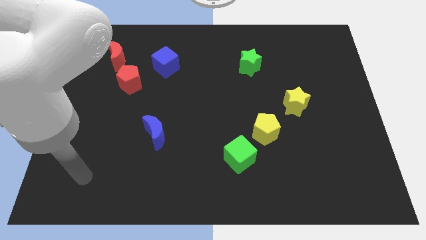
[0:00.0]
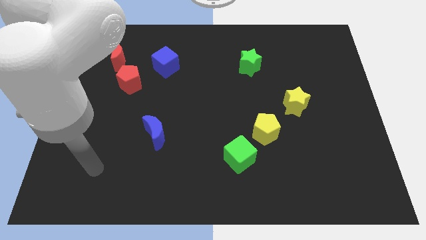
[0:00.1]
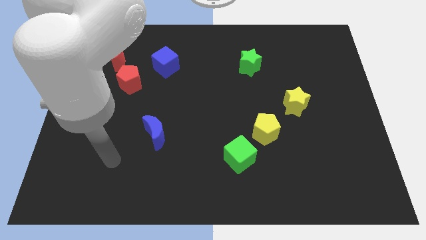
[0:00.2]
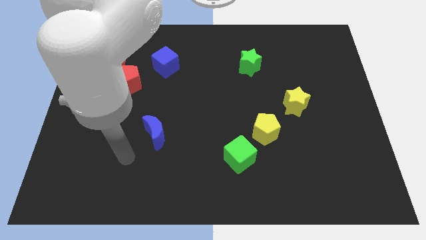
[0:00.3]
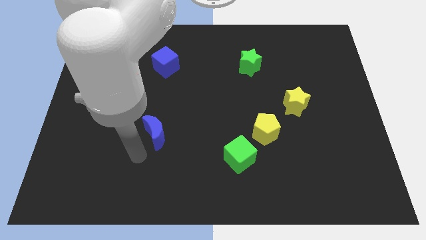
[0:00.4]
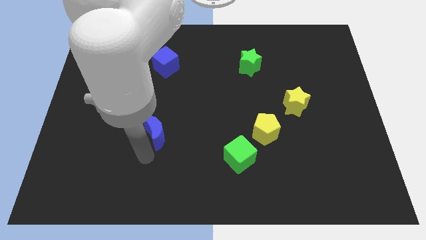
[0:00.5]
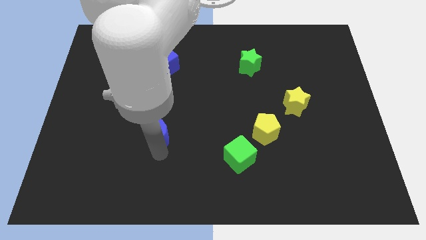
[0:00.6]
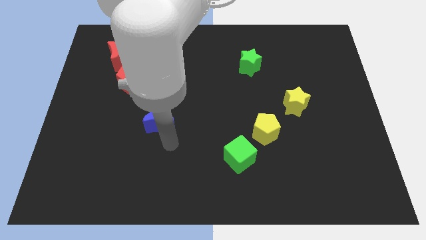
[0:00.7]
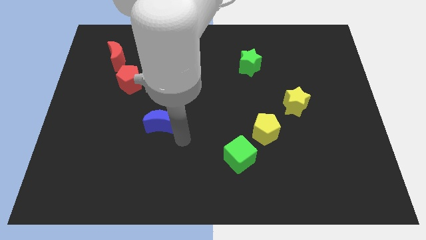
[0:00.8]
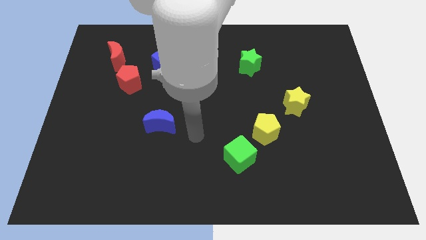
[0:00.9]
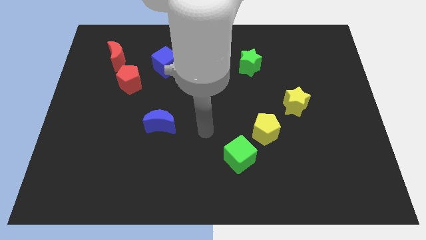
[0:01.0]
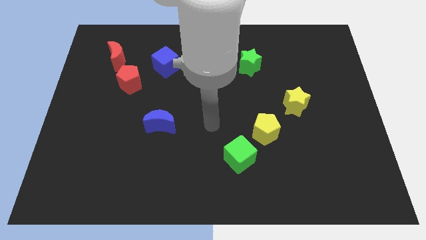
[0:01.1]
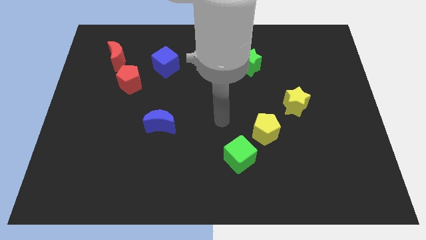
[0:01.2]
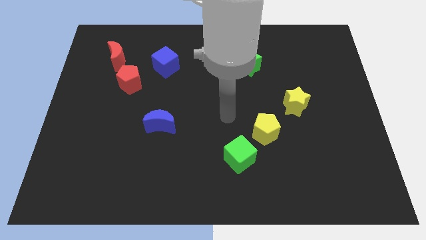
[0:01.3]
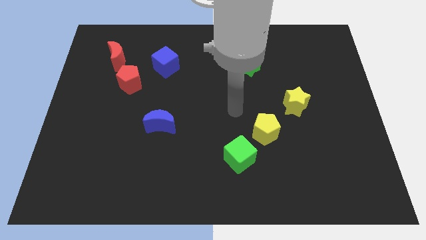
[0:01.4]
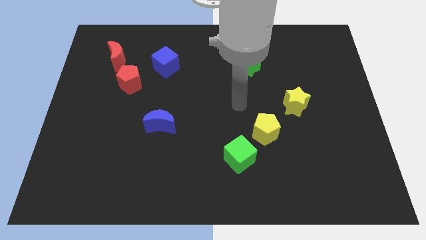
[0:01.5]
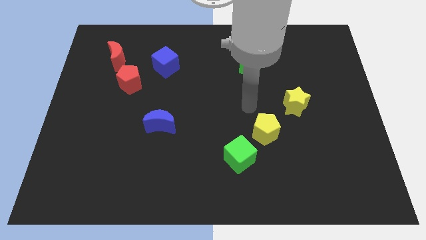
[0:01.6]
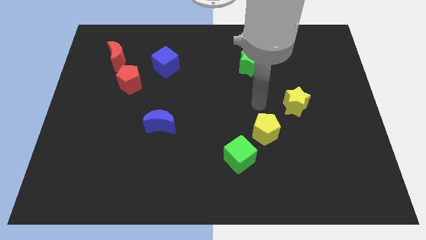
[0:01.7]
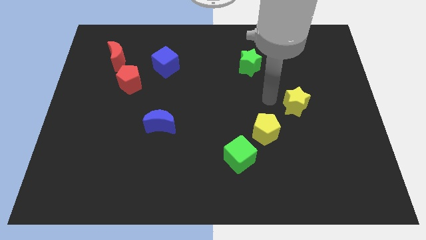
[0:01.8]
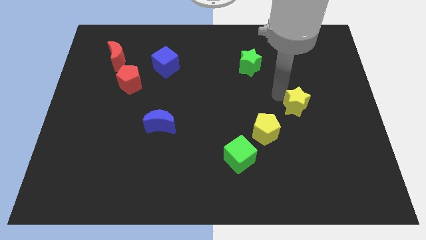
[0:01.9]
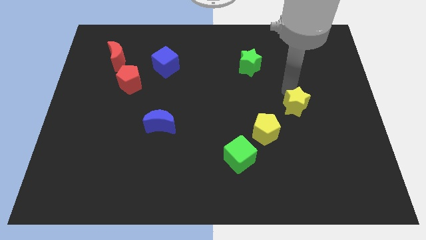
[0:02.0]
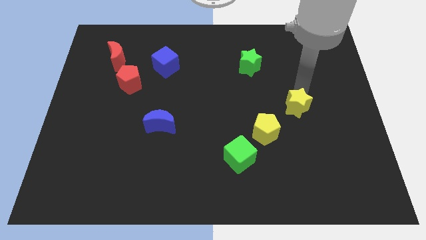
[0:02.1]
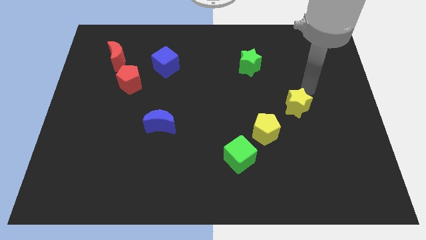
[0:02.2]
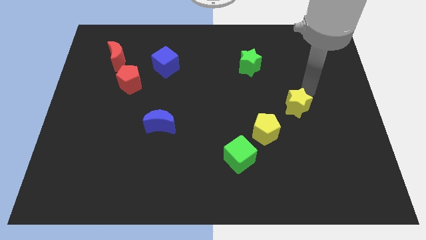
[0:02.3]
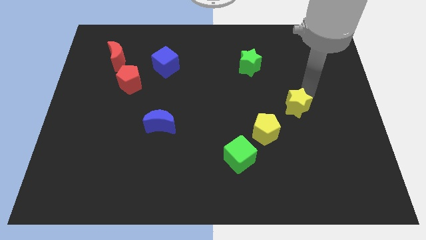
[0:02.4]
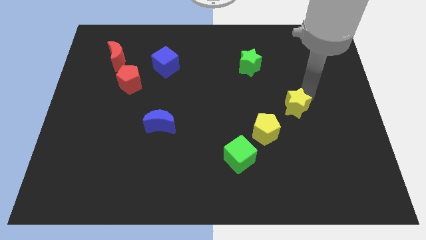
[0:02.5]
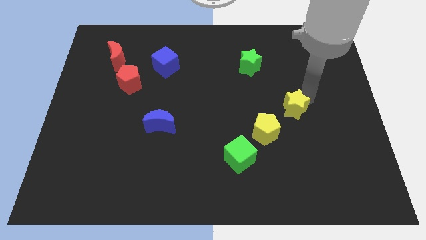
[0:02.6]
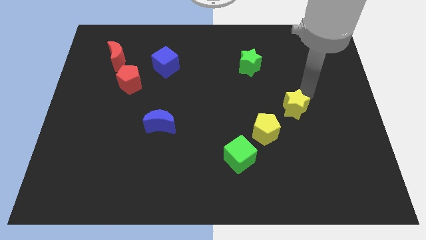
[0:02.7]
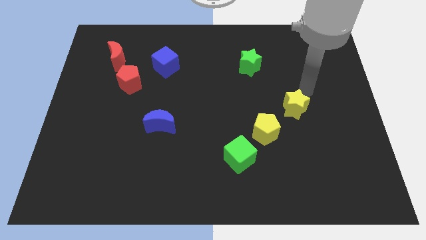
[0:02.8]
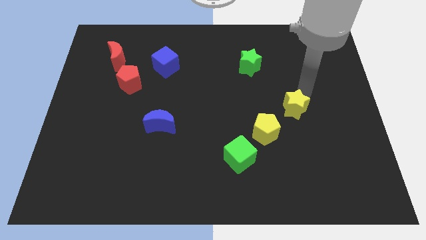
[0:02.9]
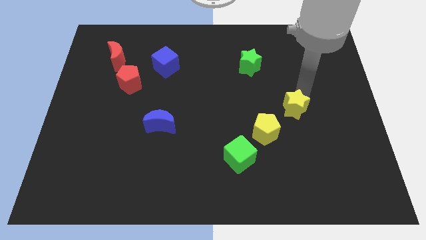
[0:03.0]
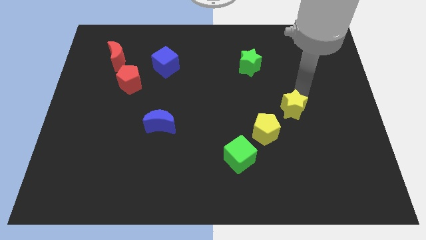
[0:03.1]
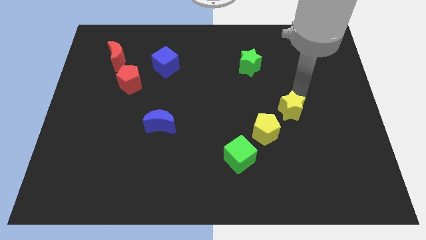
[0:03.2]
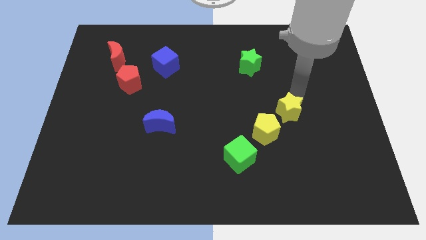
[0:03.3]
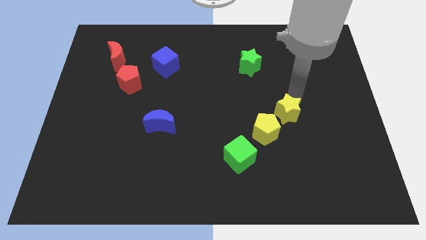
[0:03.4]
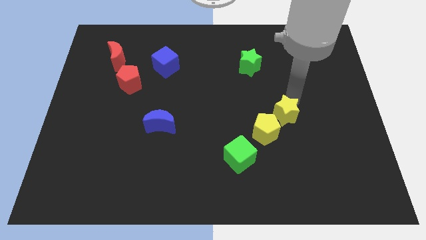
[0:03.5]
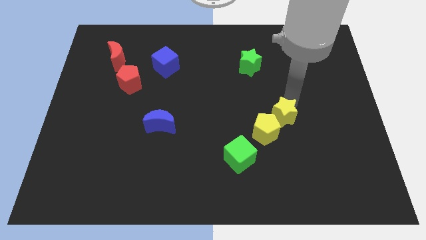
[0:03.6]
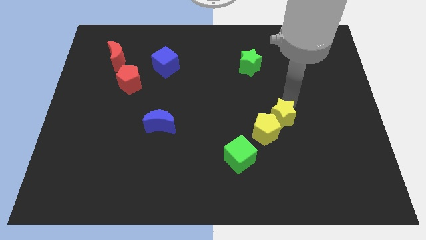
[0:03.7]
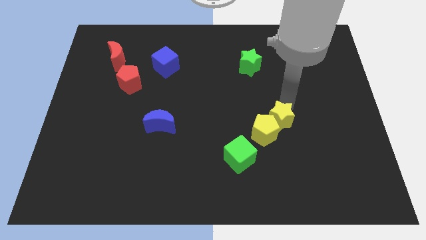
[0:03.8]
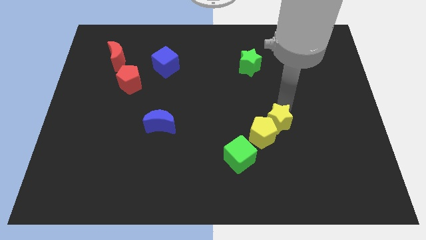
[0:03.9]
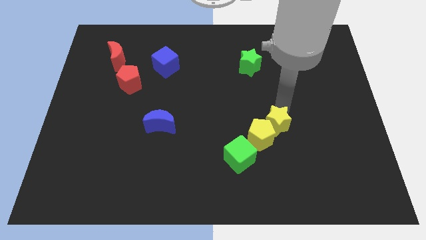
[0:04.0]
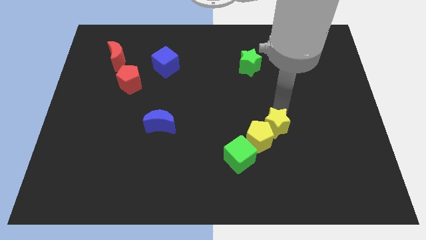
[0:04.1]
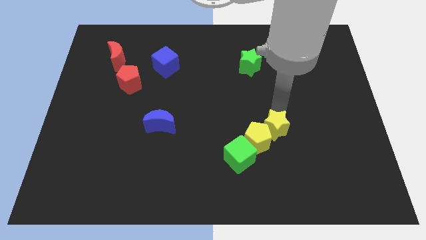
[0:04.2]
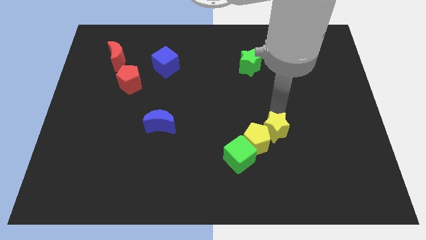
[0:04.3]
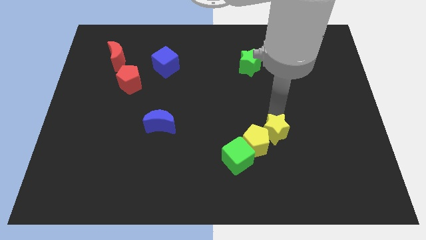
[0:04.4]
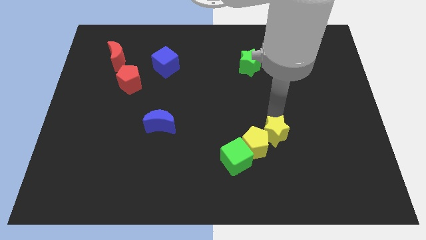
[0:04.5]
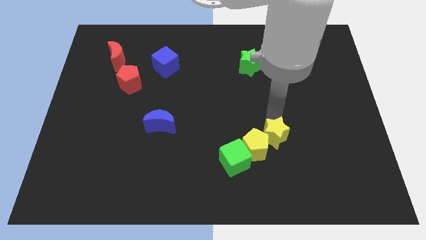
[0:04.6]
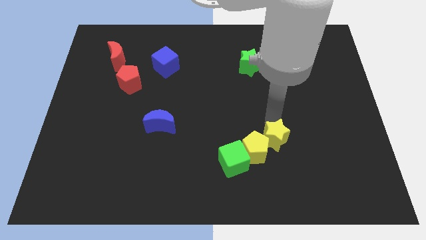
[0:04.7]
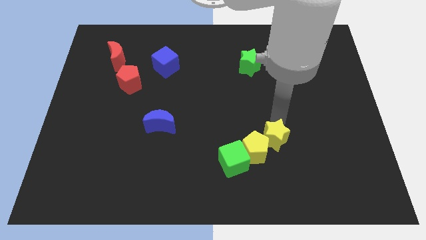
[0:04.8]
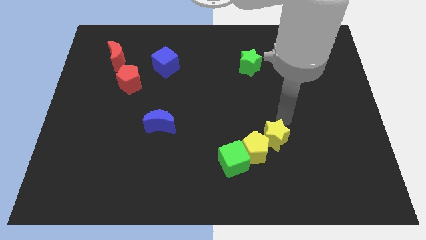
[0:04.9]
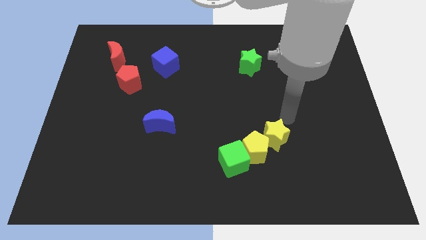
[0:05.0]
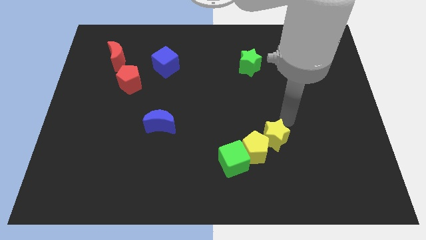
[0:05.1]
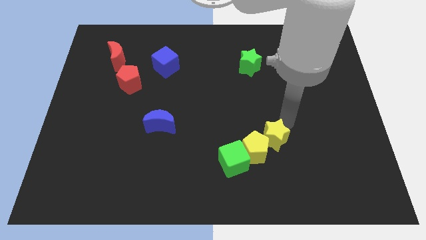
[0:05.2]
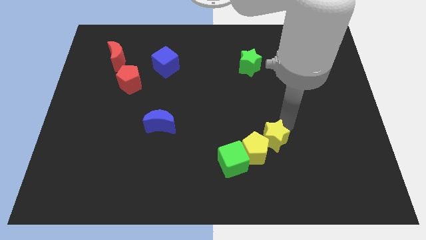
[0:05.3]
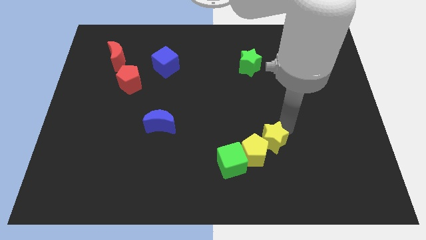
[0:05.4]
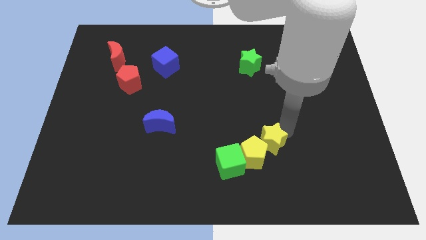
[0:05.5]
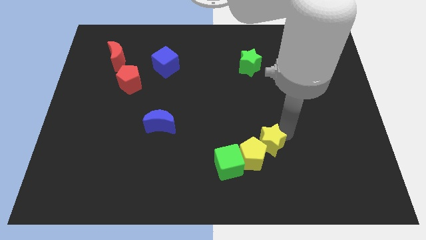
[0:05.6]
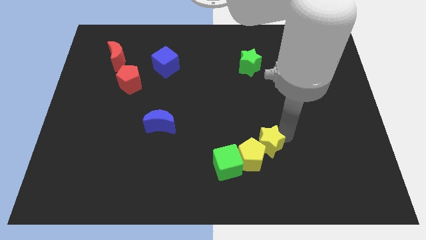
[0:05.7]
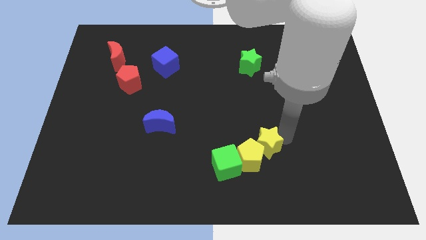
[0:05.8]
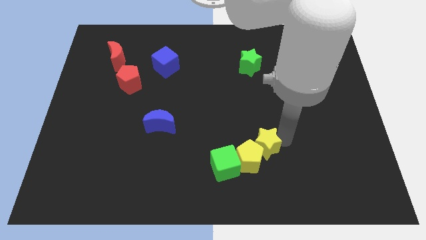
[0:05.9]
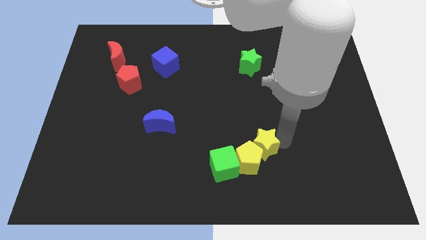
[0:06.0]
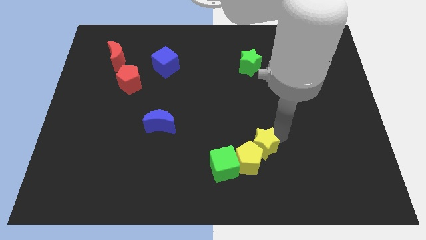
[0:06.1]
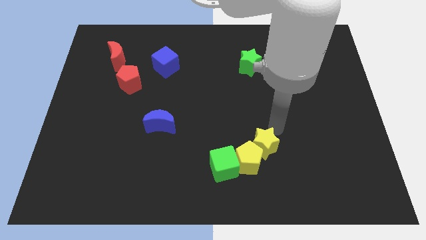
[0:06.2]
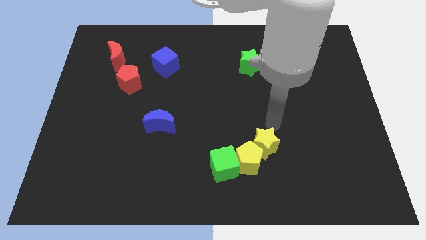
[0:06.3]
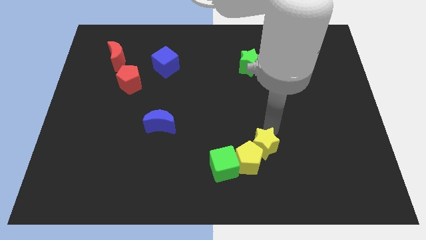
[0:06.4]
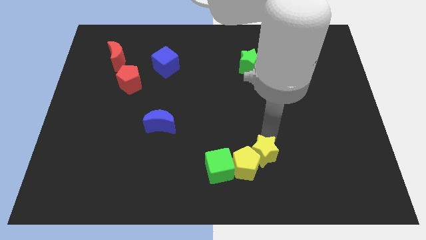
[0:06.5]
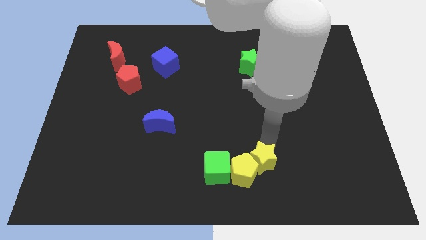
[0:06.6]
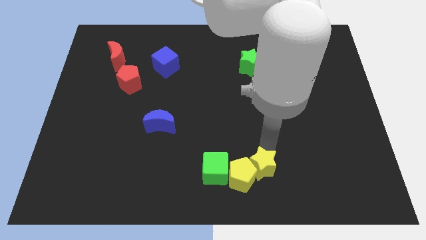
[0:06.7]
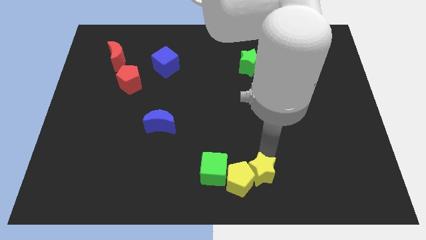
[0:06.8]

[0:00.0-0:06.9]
slide the yellow star to the bottom side

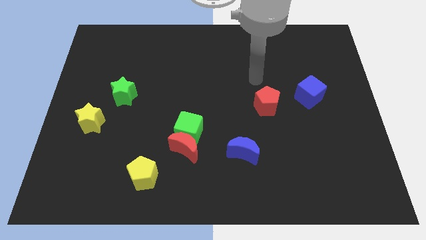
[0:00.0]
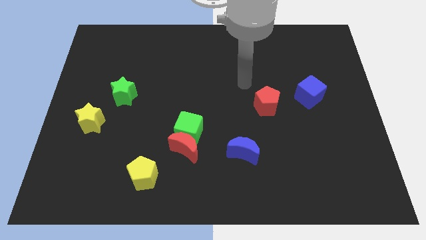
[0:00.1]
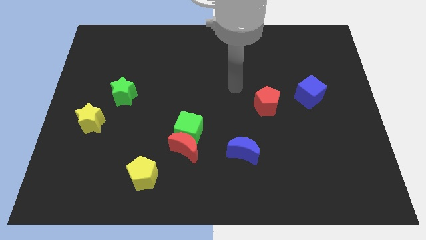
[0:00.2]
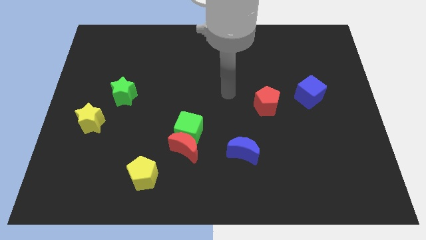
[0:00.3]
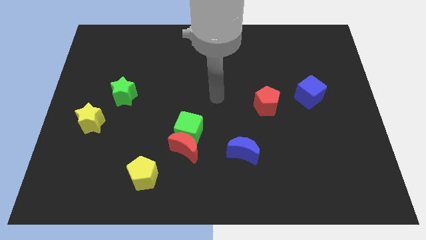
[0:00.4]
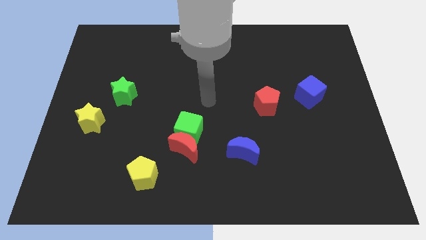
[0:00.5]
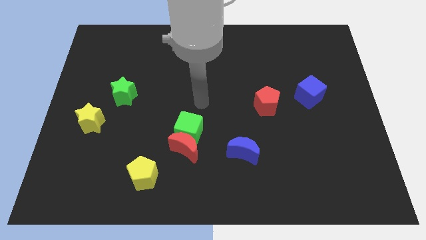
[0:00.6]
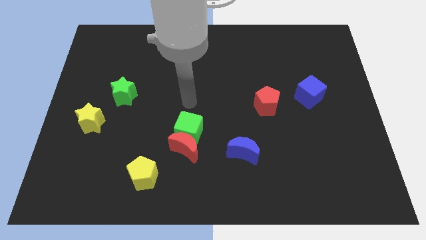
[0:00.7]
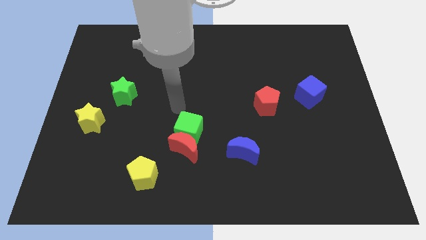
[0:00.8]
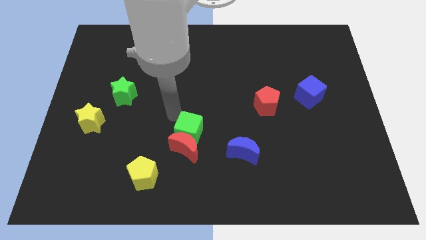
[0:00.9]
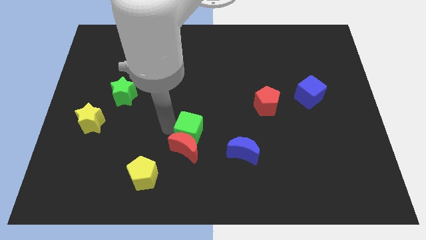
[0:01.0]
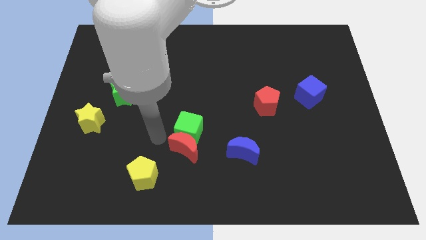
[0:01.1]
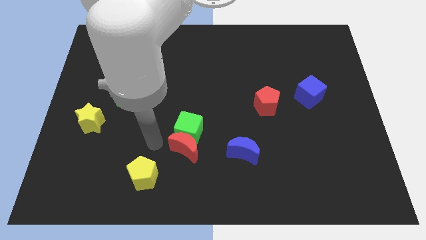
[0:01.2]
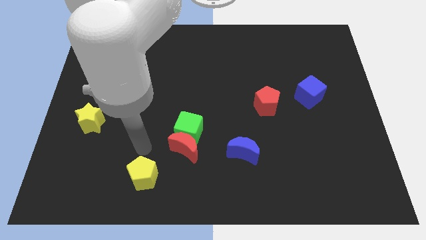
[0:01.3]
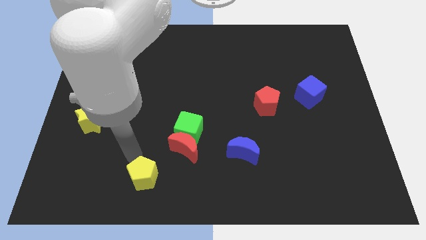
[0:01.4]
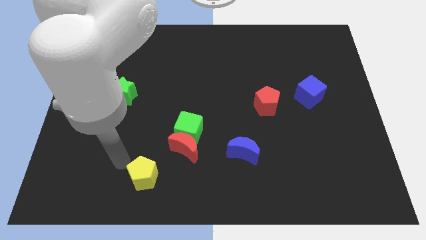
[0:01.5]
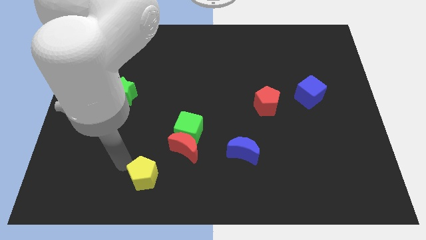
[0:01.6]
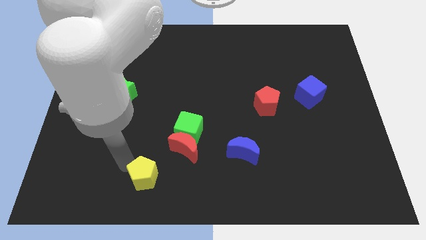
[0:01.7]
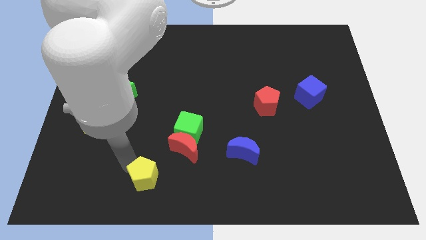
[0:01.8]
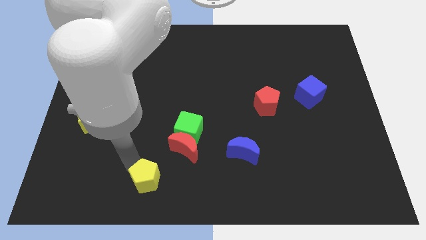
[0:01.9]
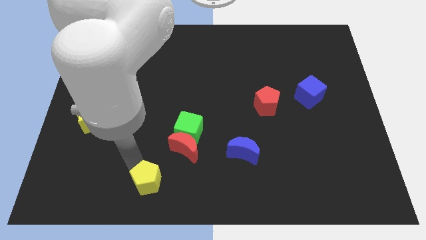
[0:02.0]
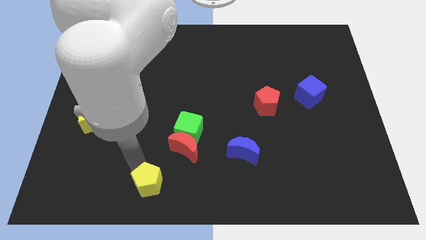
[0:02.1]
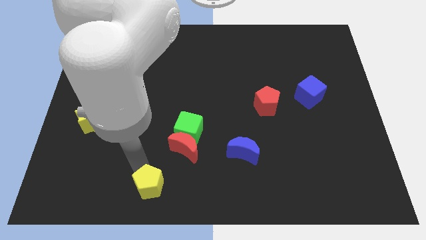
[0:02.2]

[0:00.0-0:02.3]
move the yellow pentagon to the bottom
